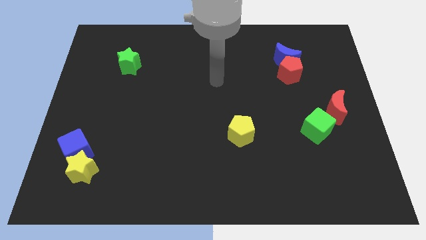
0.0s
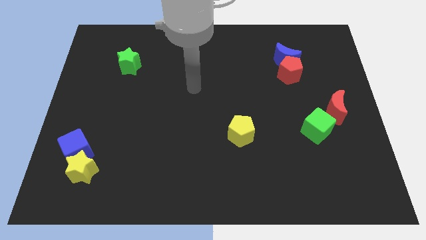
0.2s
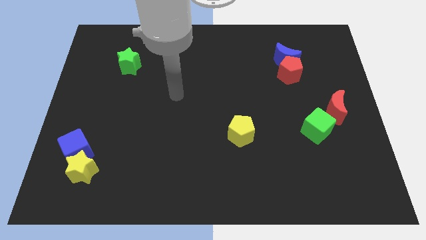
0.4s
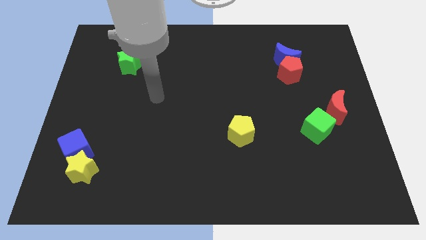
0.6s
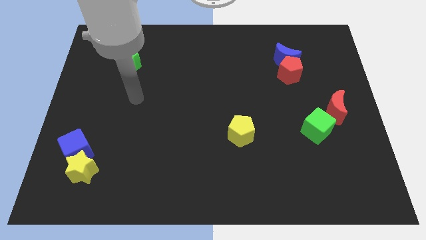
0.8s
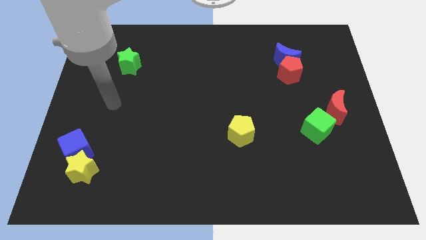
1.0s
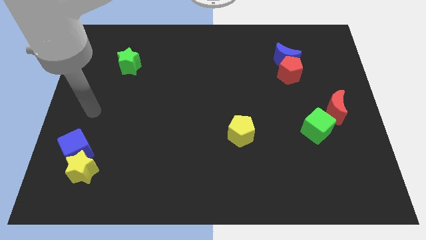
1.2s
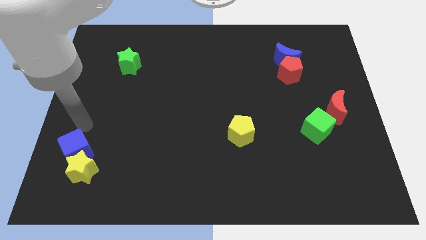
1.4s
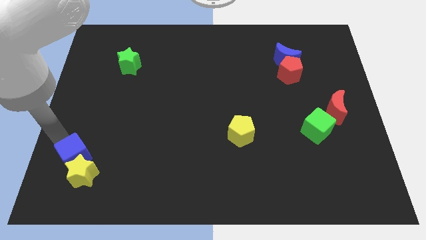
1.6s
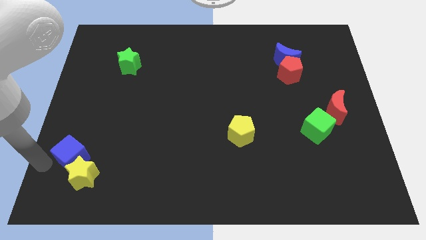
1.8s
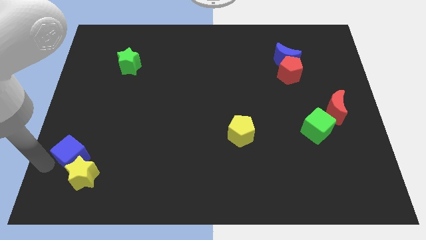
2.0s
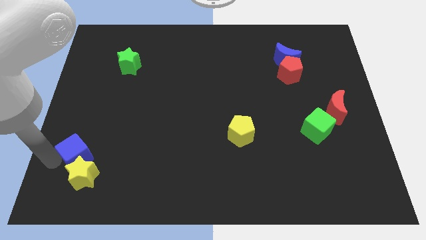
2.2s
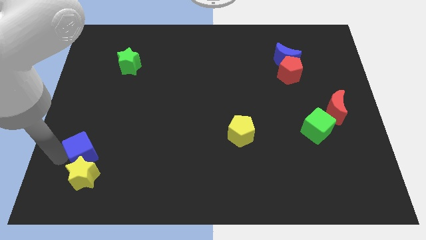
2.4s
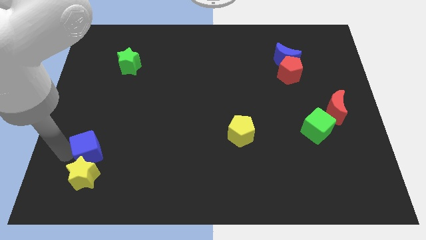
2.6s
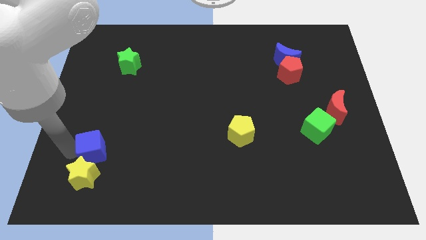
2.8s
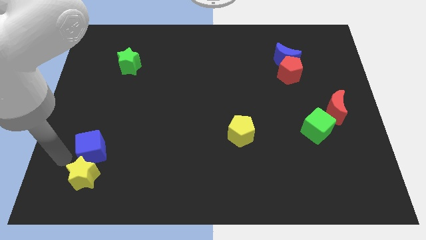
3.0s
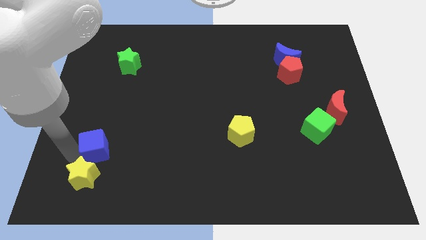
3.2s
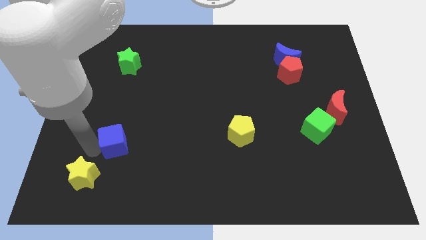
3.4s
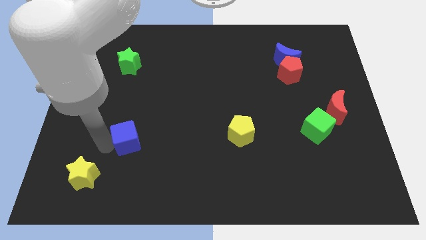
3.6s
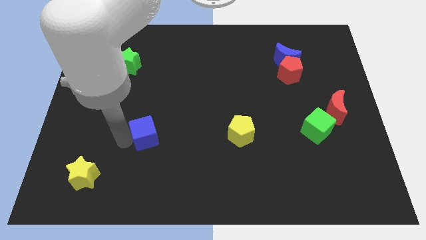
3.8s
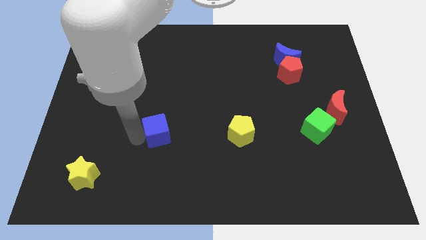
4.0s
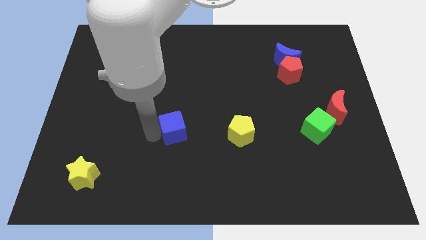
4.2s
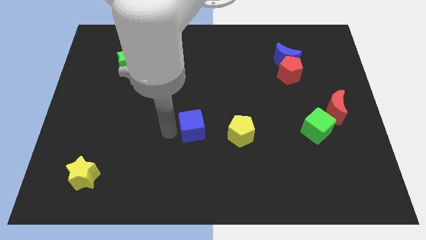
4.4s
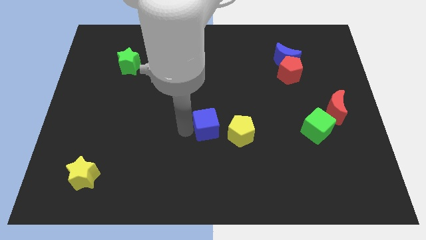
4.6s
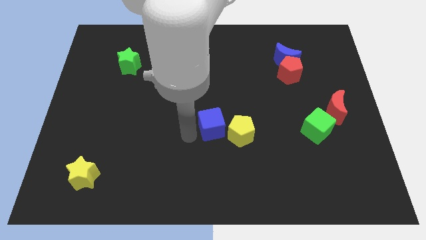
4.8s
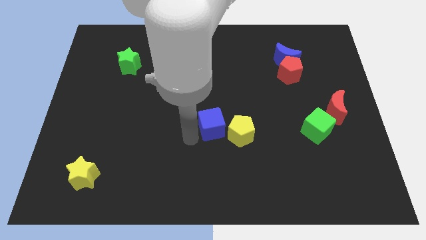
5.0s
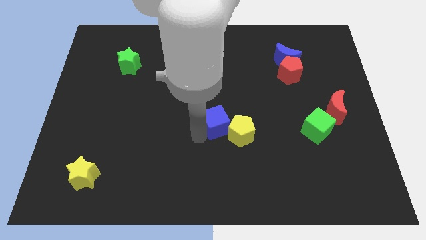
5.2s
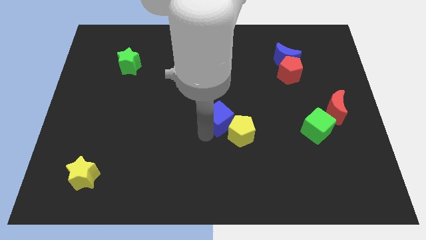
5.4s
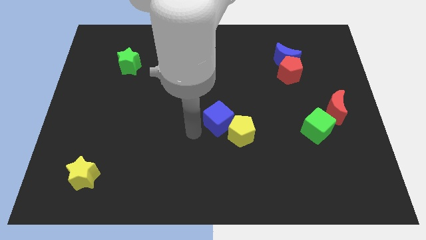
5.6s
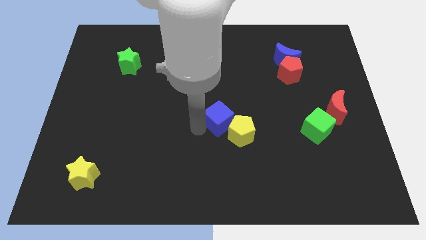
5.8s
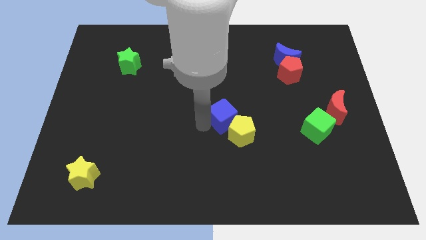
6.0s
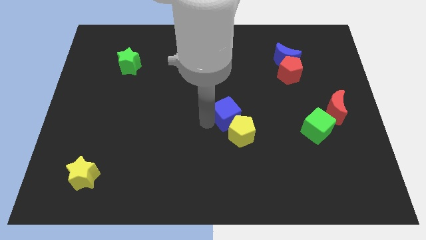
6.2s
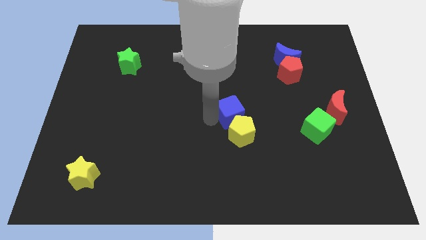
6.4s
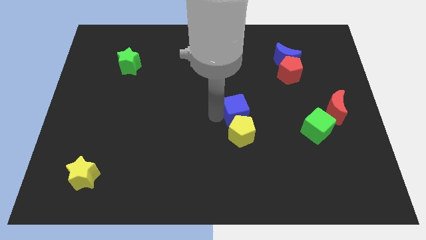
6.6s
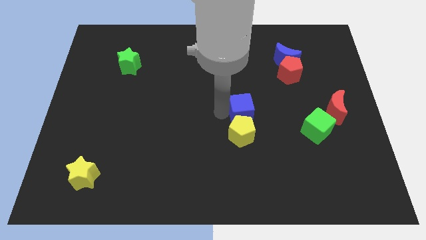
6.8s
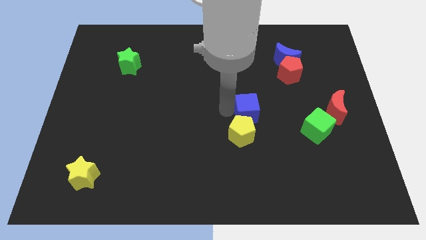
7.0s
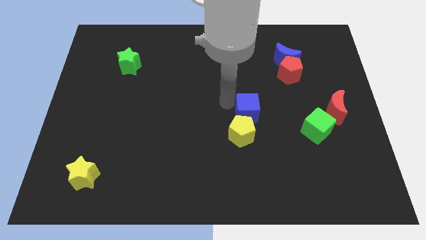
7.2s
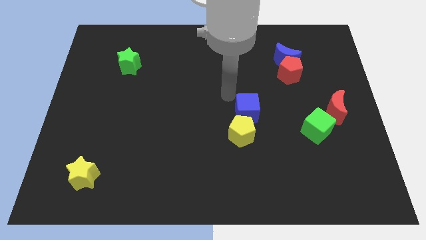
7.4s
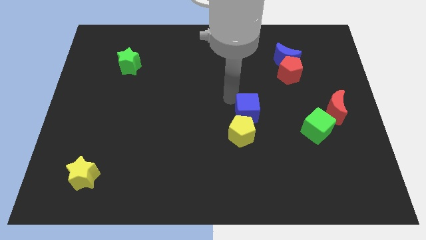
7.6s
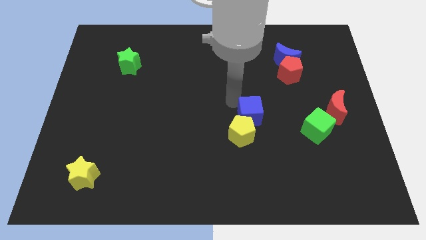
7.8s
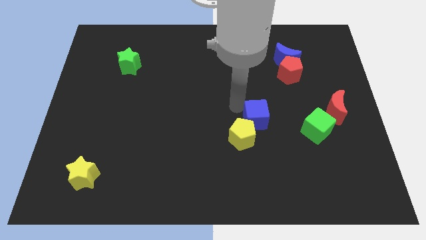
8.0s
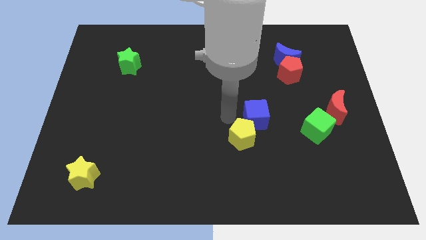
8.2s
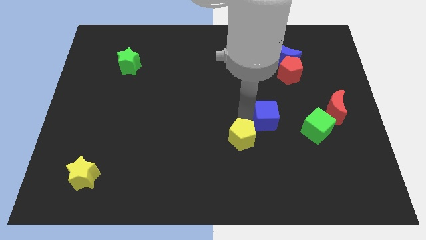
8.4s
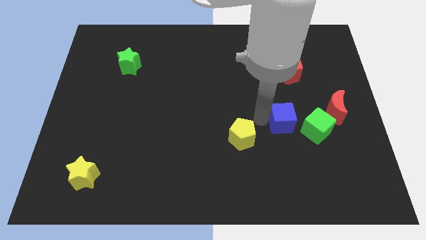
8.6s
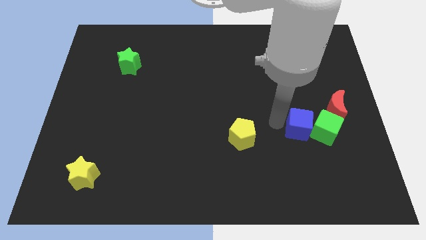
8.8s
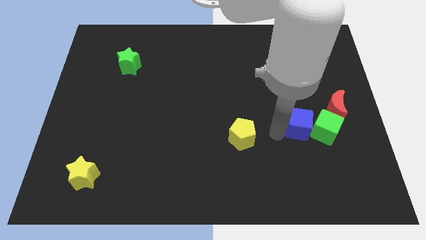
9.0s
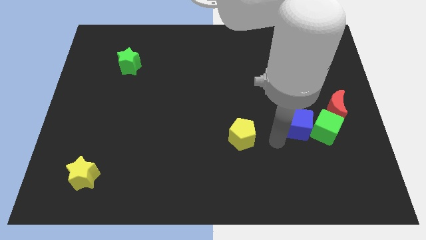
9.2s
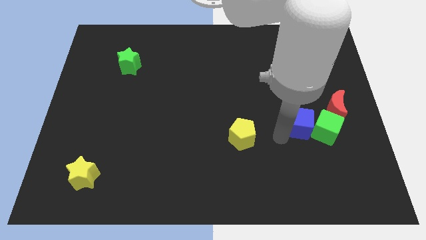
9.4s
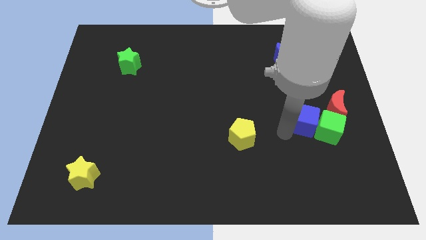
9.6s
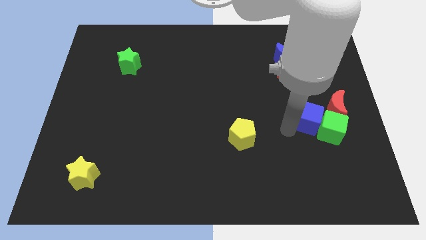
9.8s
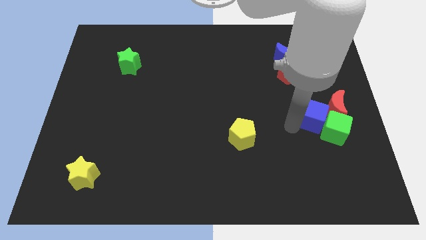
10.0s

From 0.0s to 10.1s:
put the blue cube towards the red moon

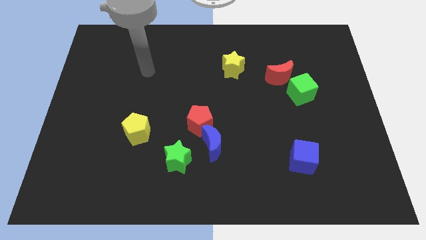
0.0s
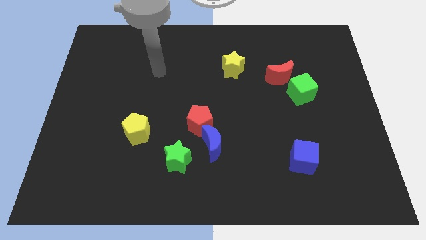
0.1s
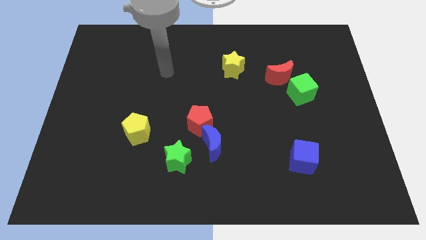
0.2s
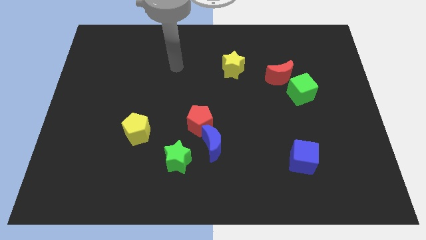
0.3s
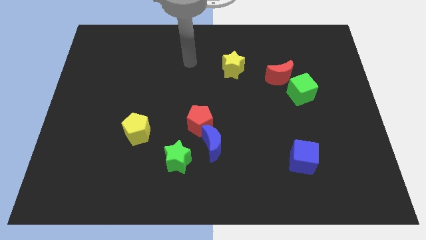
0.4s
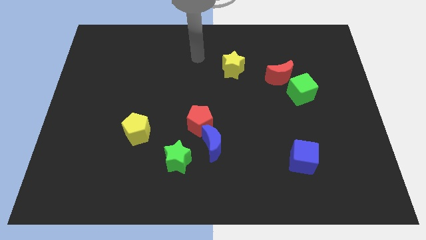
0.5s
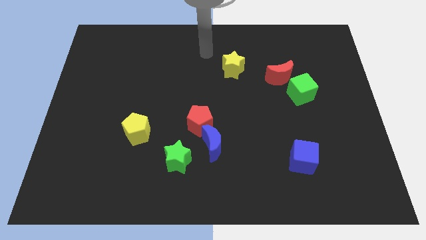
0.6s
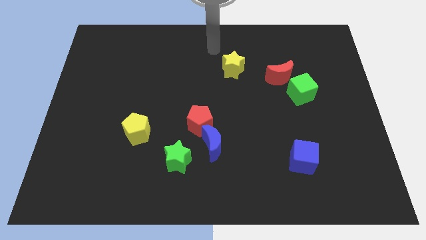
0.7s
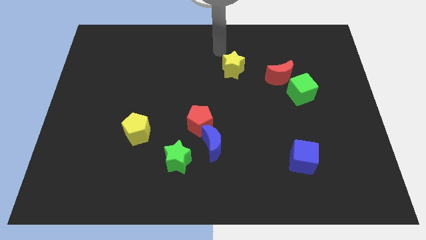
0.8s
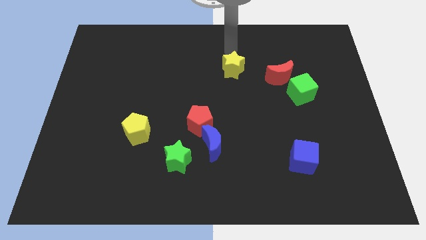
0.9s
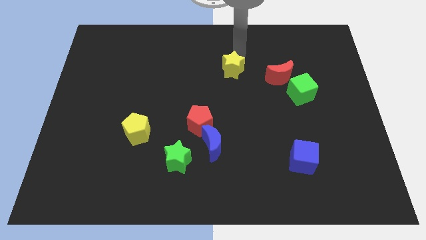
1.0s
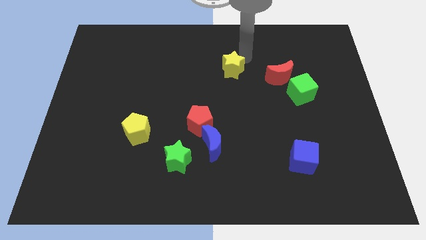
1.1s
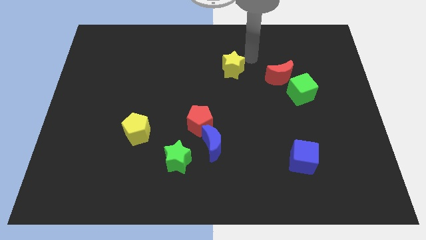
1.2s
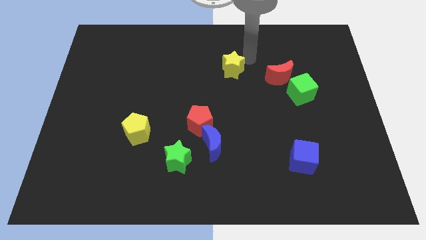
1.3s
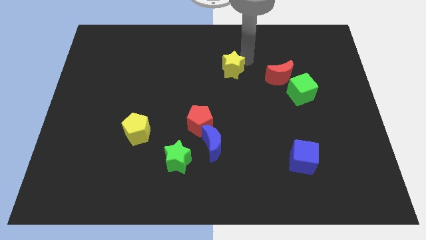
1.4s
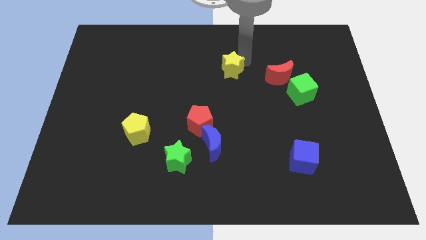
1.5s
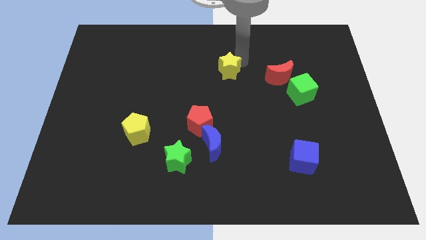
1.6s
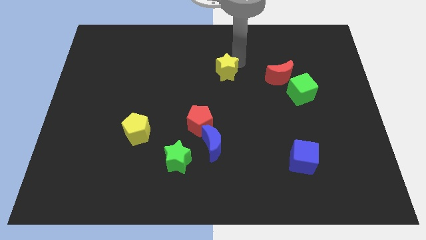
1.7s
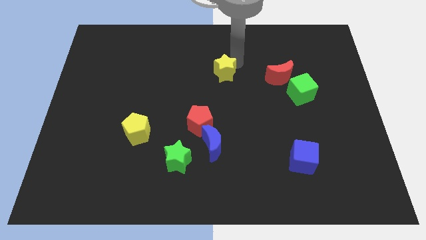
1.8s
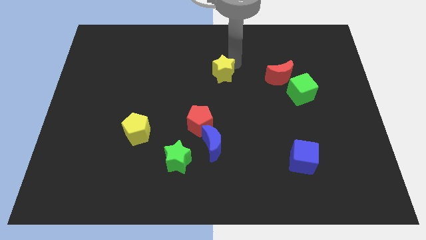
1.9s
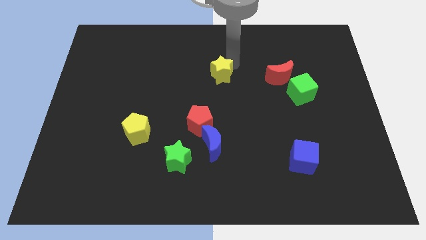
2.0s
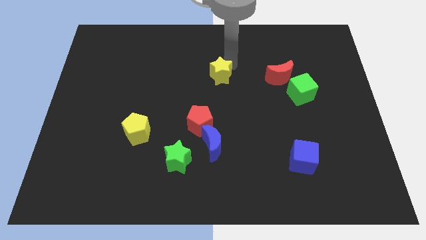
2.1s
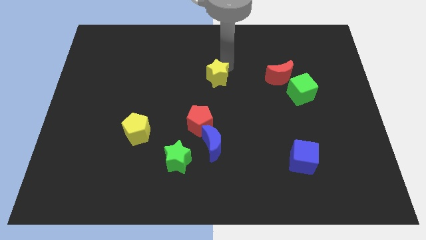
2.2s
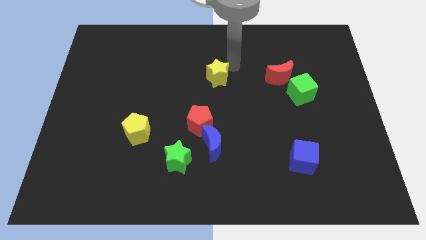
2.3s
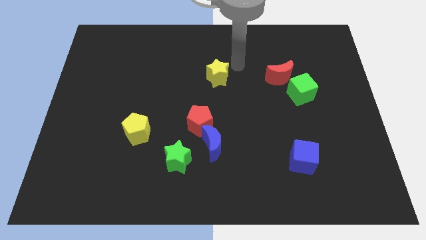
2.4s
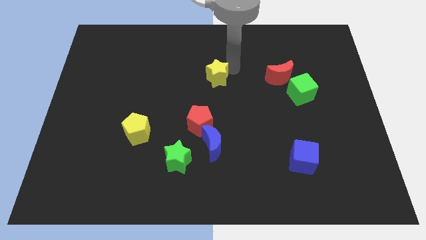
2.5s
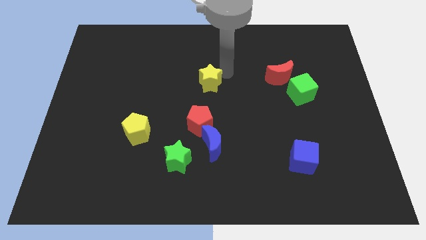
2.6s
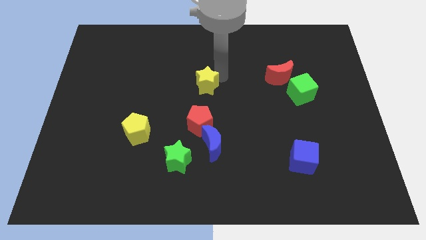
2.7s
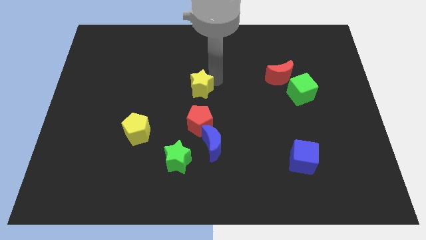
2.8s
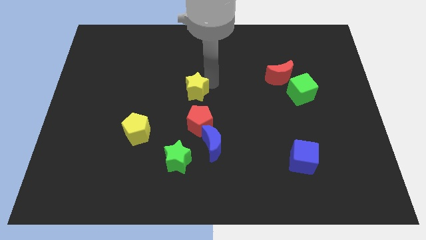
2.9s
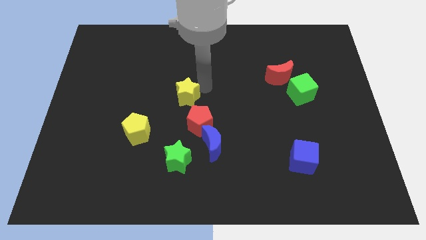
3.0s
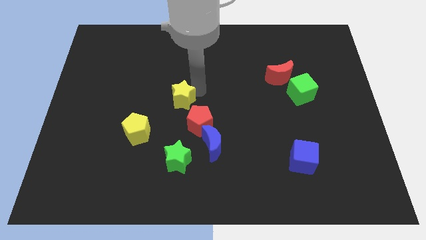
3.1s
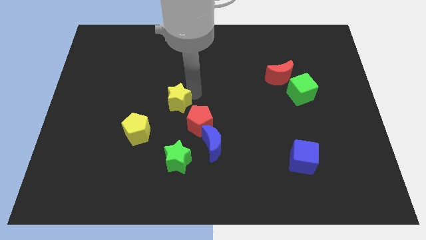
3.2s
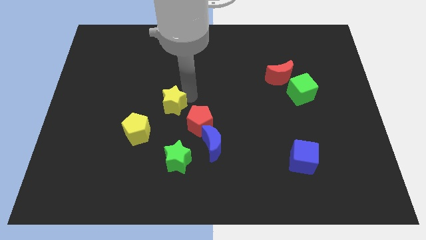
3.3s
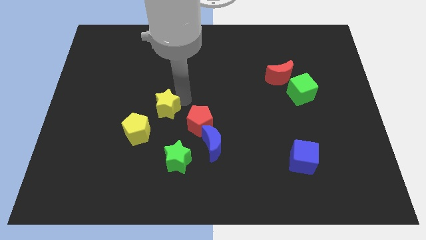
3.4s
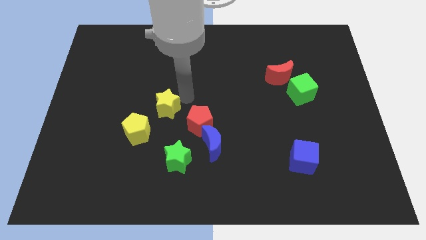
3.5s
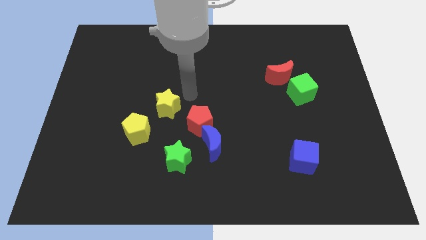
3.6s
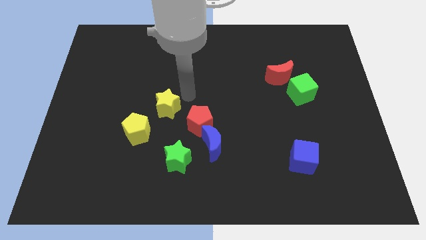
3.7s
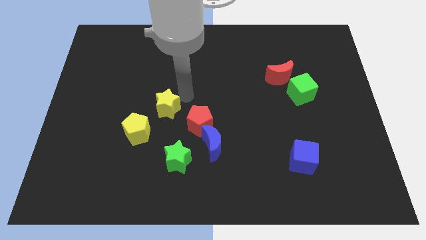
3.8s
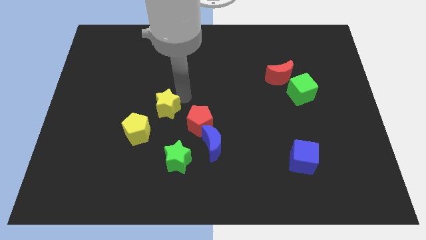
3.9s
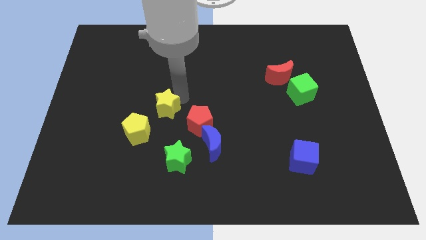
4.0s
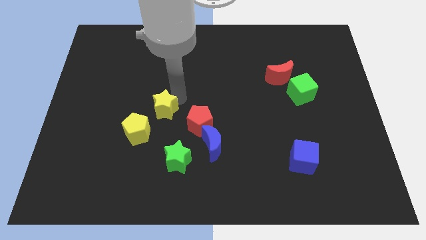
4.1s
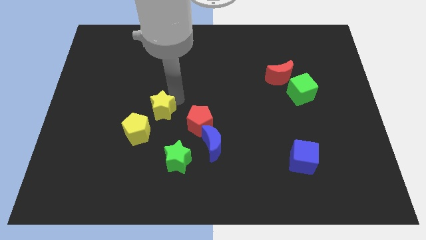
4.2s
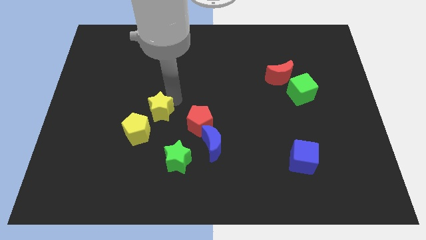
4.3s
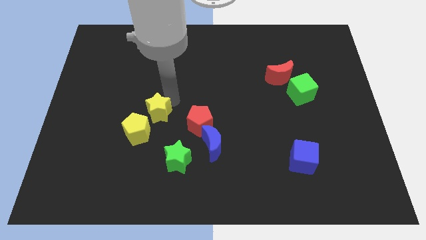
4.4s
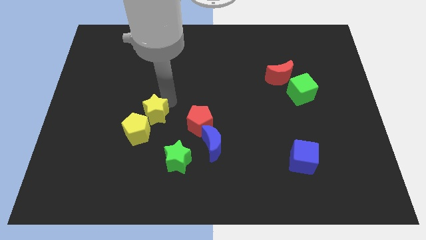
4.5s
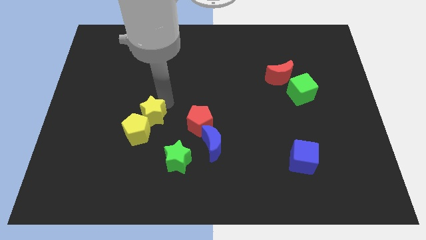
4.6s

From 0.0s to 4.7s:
put the yellow star towards the yellow pentagon
